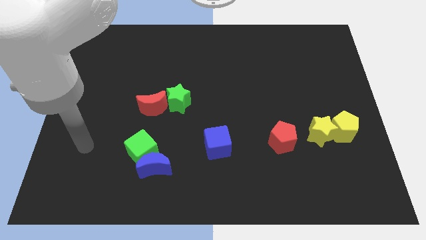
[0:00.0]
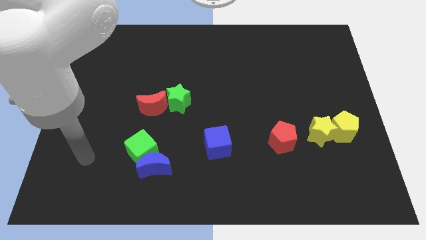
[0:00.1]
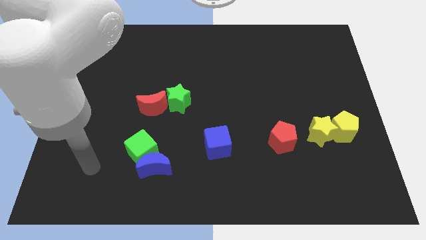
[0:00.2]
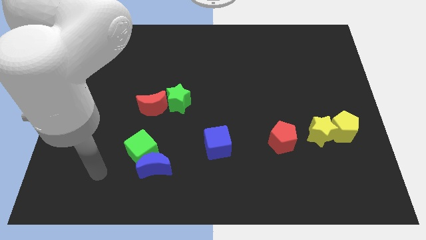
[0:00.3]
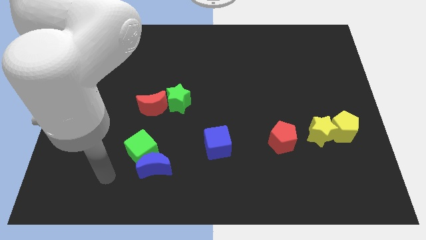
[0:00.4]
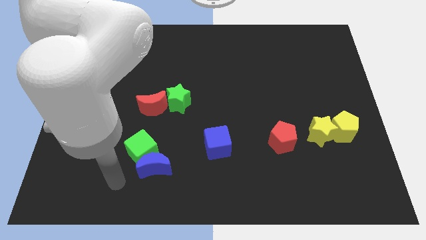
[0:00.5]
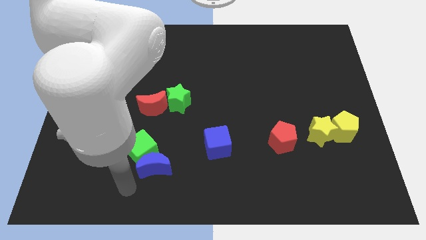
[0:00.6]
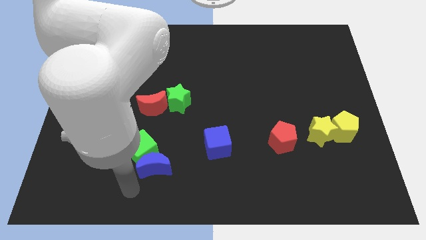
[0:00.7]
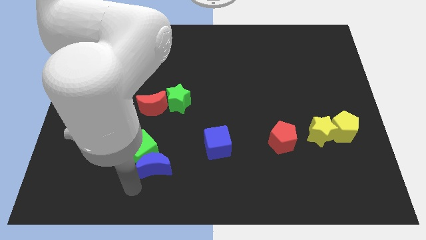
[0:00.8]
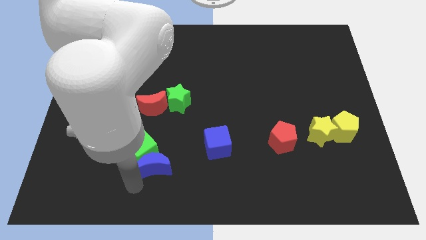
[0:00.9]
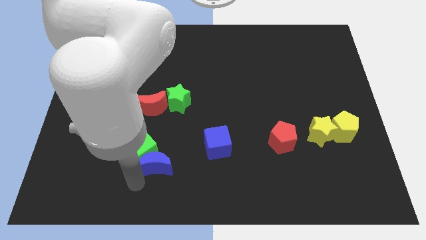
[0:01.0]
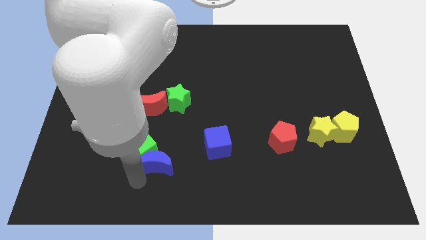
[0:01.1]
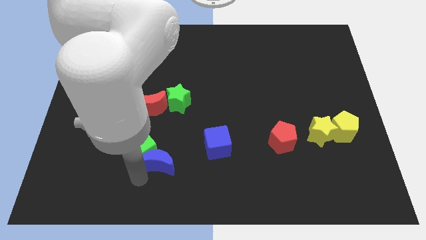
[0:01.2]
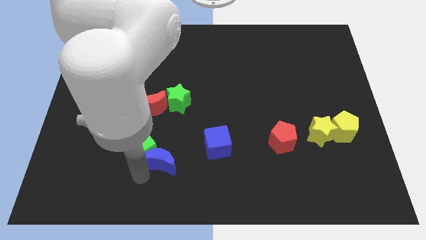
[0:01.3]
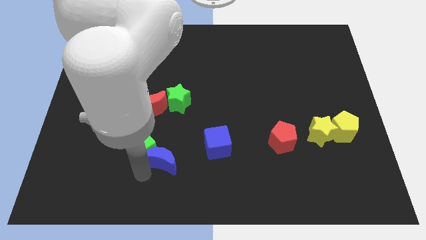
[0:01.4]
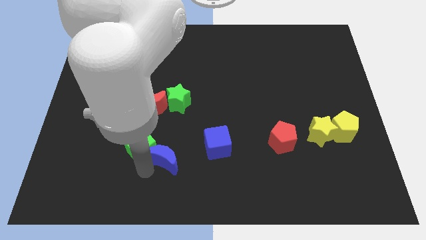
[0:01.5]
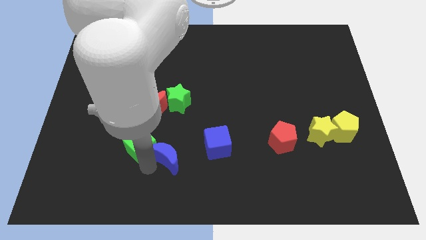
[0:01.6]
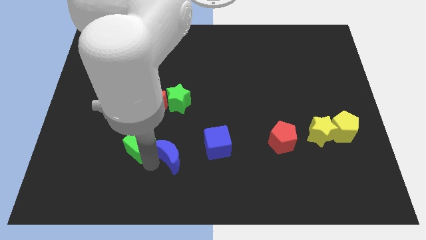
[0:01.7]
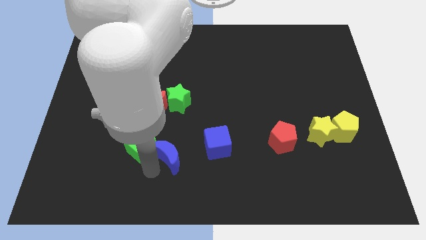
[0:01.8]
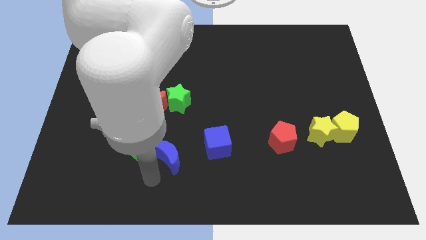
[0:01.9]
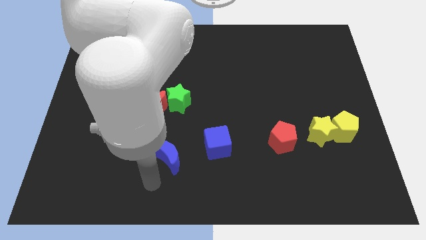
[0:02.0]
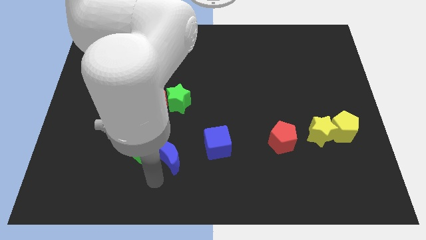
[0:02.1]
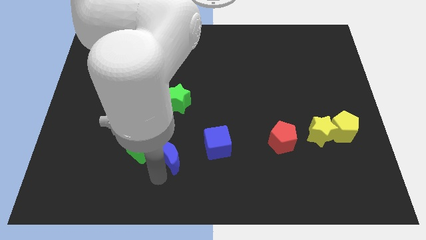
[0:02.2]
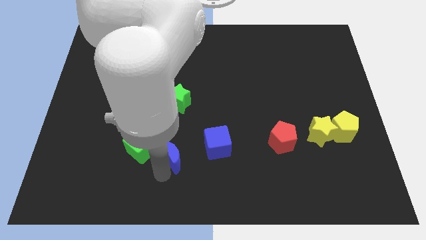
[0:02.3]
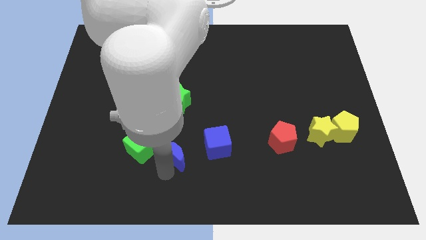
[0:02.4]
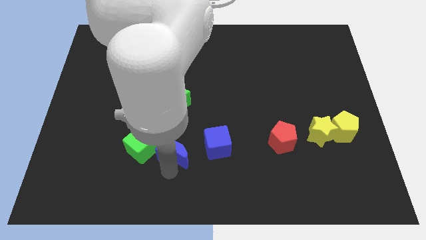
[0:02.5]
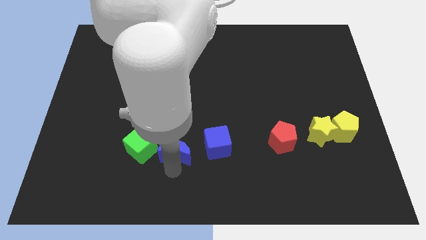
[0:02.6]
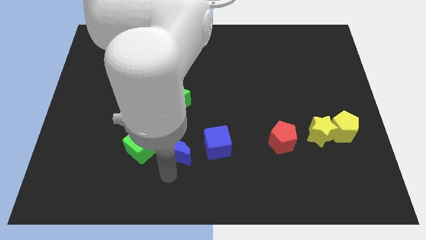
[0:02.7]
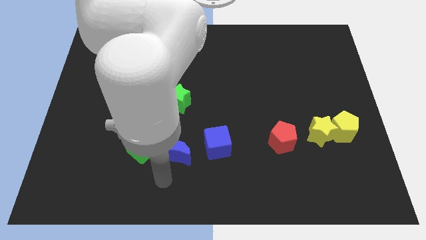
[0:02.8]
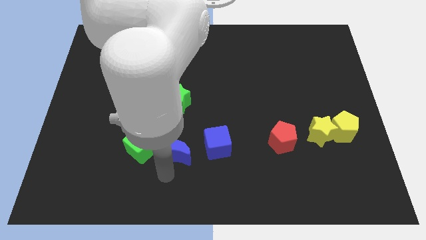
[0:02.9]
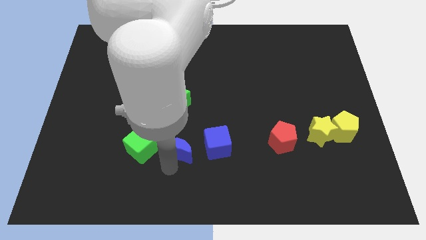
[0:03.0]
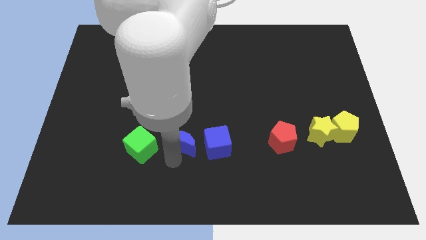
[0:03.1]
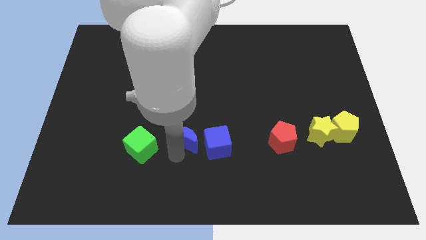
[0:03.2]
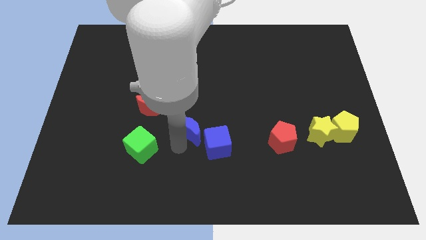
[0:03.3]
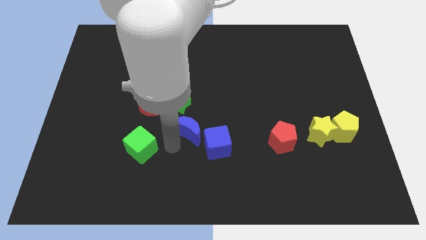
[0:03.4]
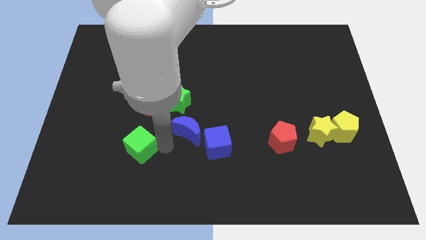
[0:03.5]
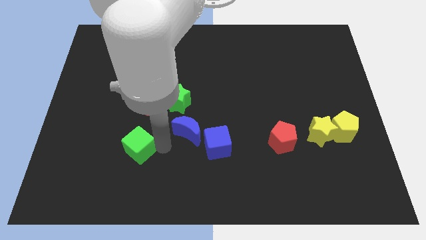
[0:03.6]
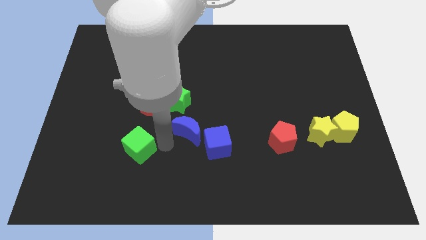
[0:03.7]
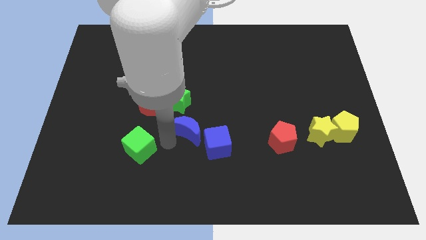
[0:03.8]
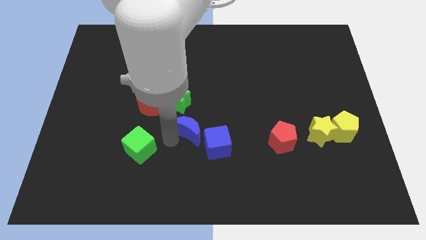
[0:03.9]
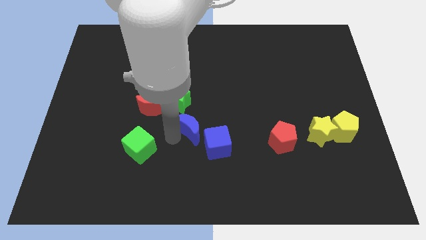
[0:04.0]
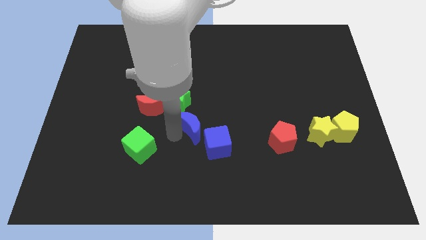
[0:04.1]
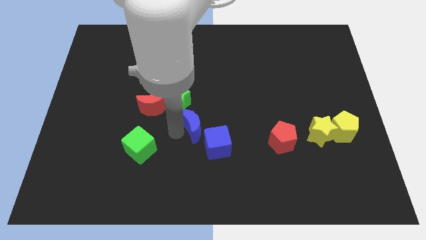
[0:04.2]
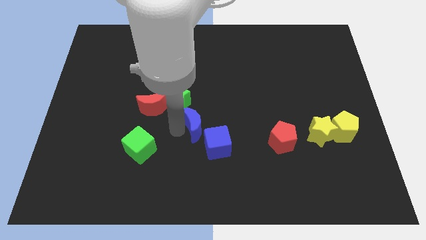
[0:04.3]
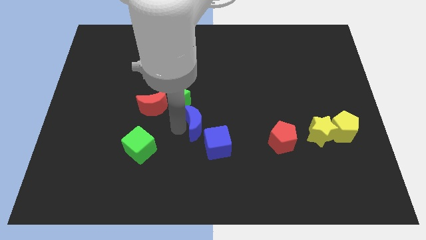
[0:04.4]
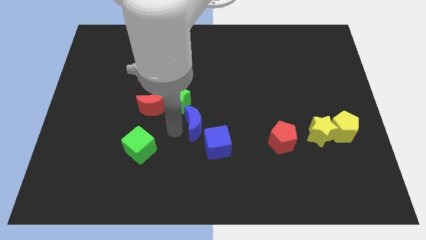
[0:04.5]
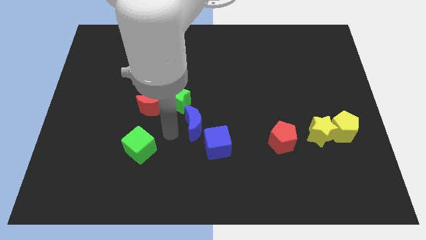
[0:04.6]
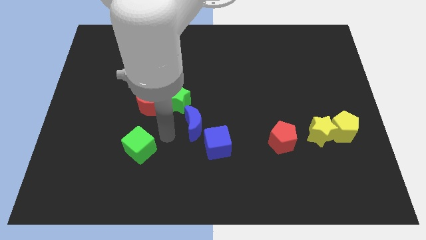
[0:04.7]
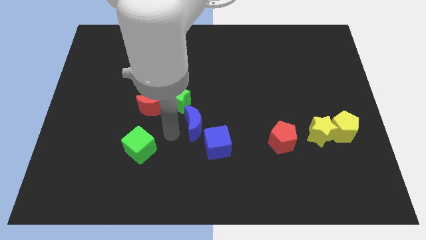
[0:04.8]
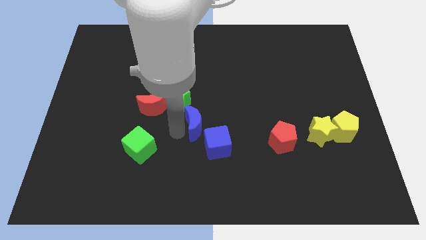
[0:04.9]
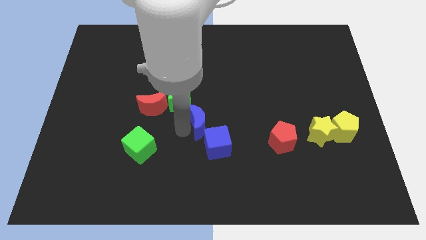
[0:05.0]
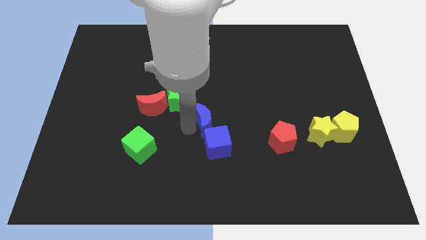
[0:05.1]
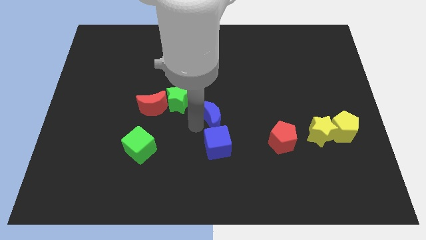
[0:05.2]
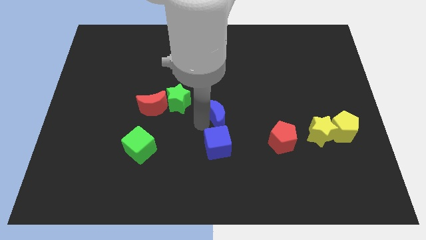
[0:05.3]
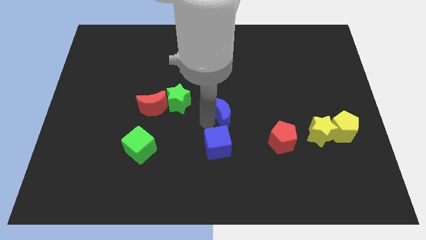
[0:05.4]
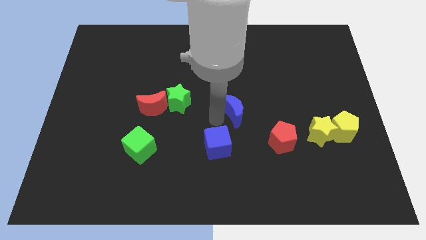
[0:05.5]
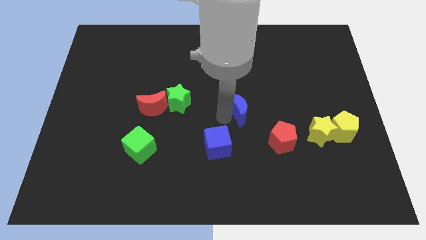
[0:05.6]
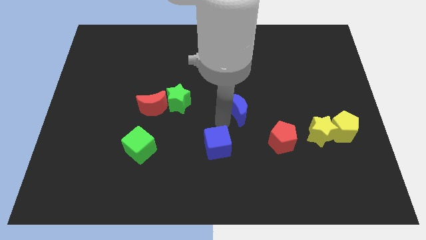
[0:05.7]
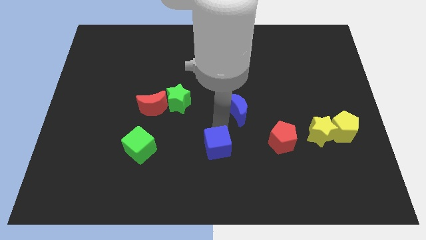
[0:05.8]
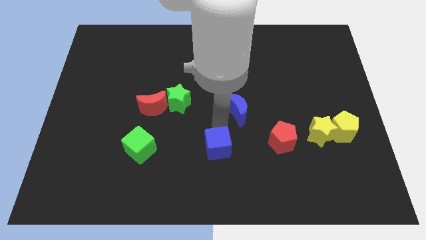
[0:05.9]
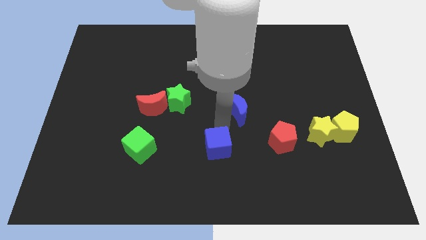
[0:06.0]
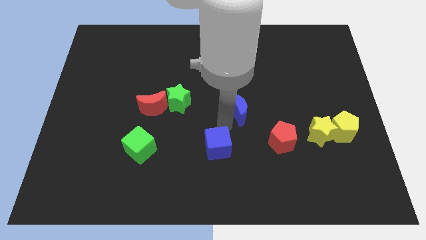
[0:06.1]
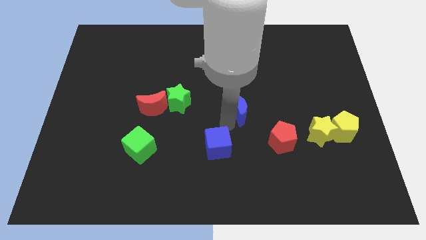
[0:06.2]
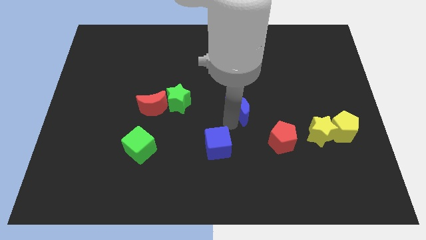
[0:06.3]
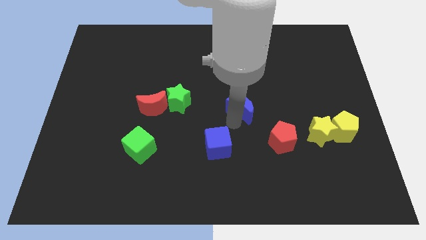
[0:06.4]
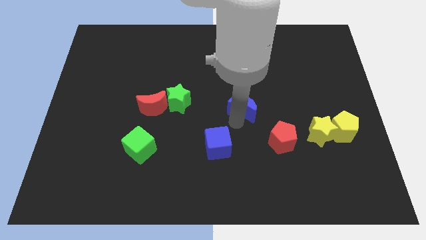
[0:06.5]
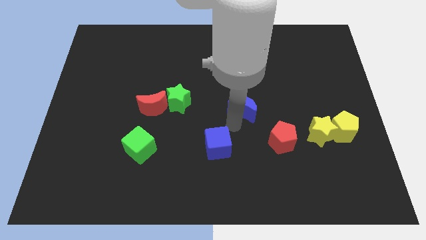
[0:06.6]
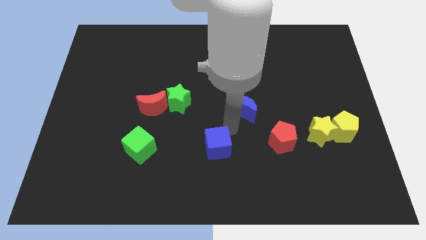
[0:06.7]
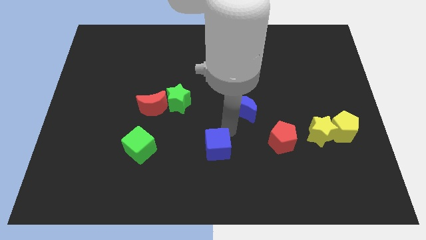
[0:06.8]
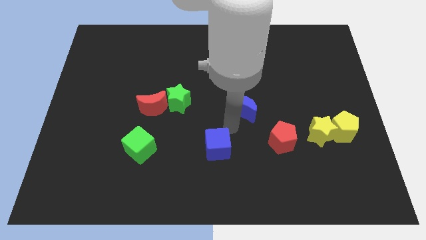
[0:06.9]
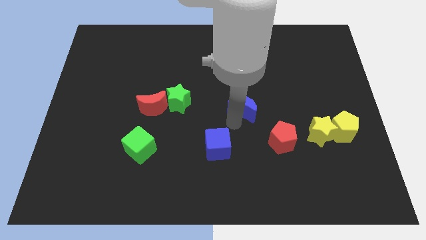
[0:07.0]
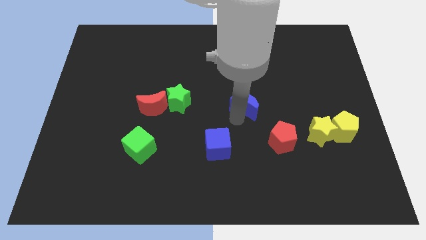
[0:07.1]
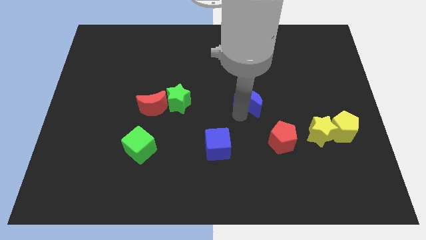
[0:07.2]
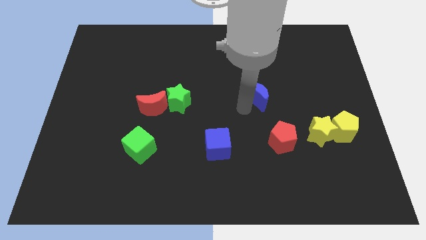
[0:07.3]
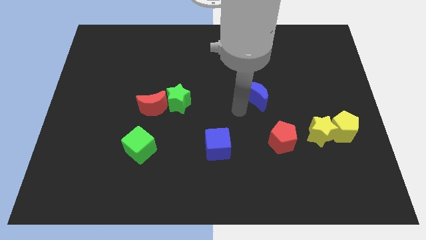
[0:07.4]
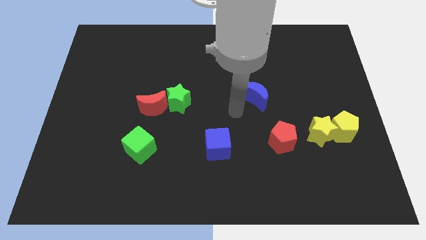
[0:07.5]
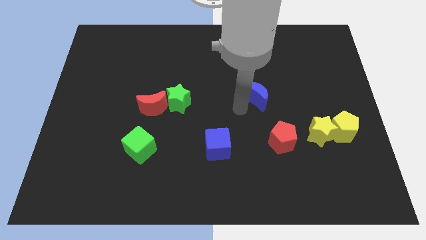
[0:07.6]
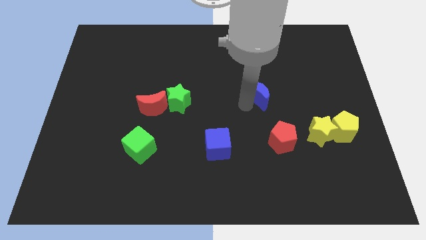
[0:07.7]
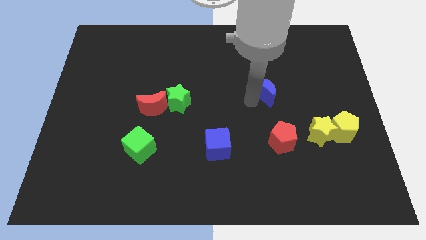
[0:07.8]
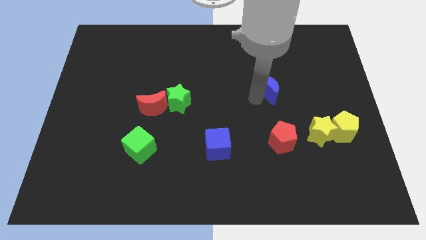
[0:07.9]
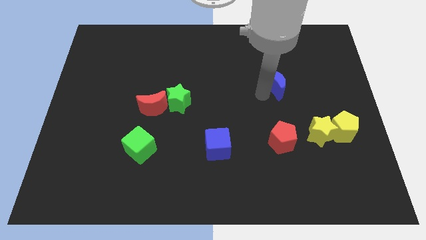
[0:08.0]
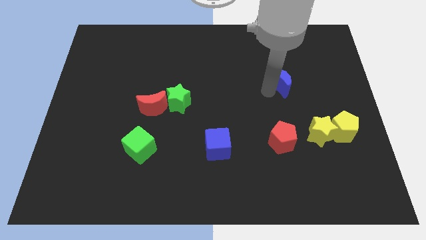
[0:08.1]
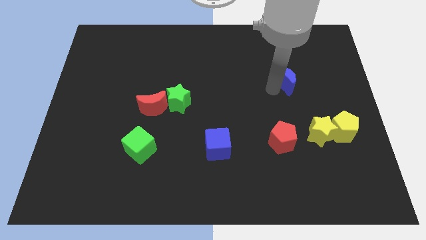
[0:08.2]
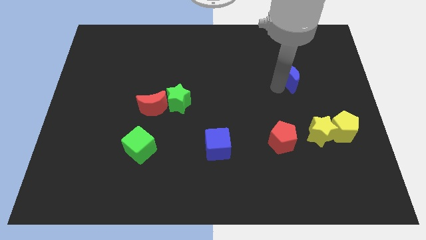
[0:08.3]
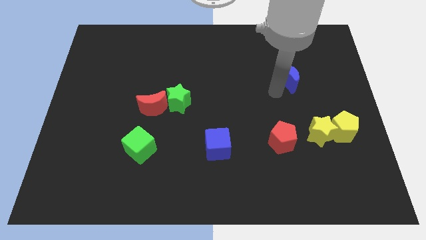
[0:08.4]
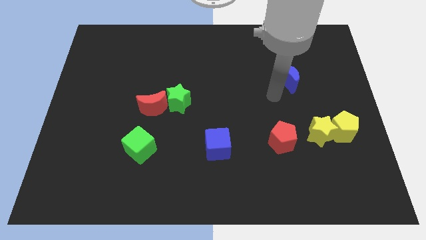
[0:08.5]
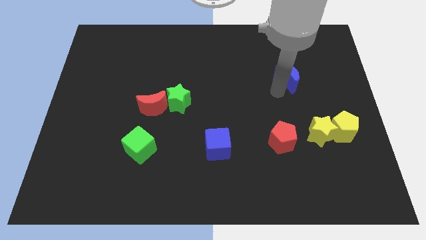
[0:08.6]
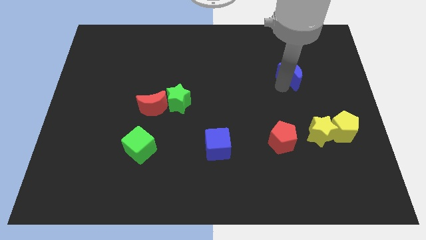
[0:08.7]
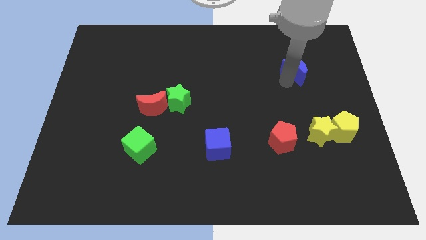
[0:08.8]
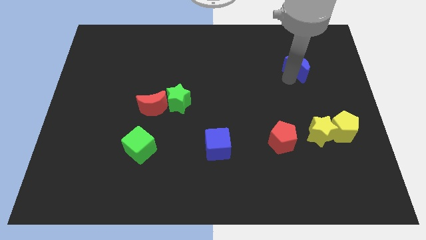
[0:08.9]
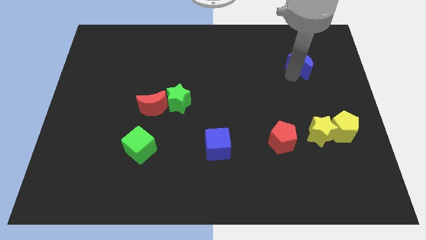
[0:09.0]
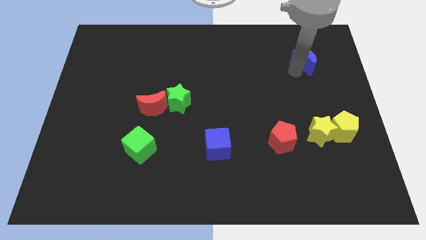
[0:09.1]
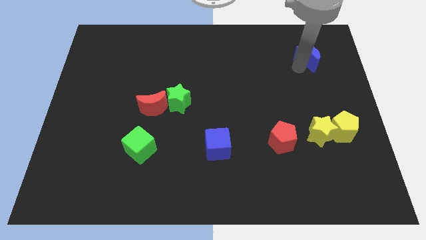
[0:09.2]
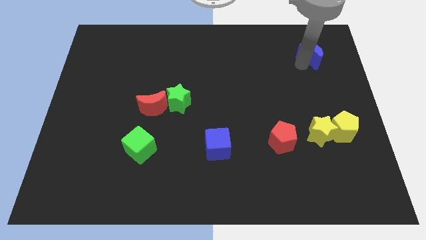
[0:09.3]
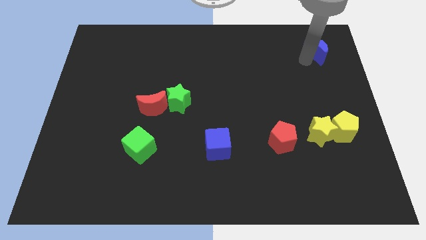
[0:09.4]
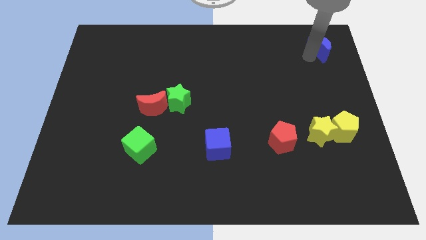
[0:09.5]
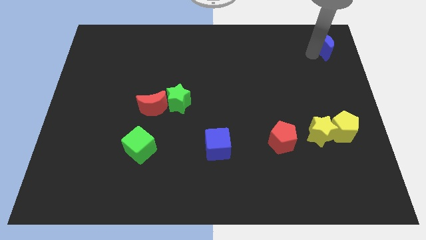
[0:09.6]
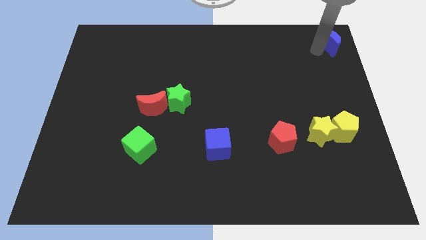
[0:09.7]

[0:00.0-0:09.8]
slide the blue moon to the top right of the board
